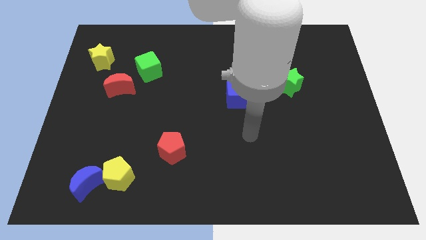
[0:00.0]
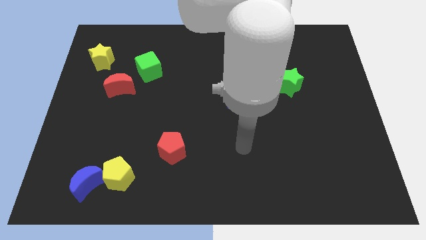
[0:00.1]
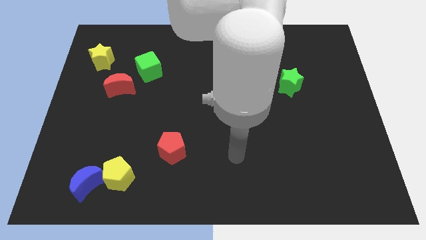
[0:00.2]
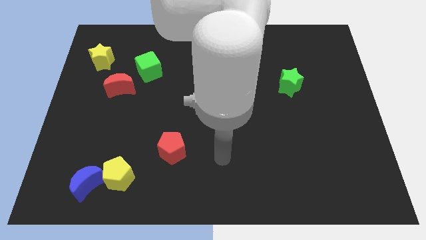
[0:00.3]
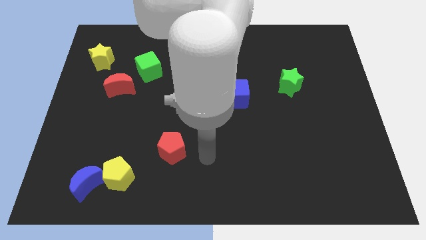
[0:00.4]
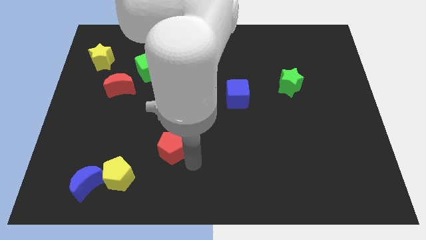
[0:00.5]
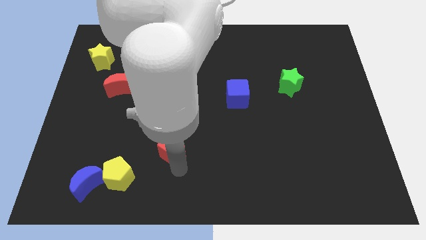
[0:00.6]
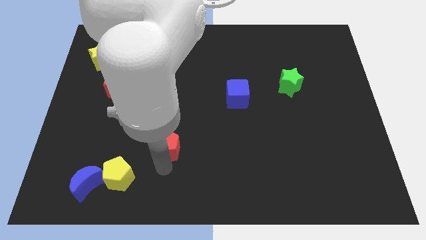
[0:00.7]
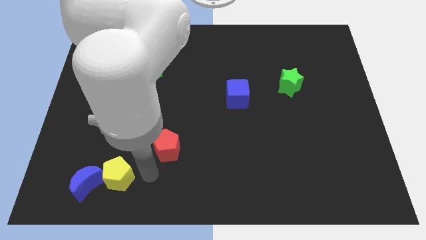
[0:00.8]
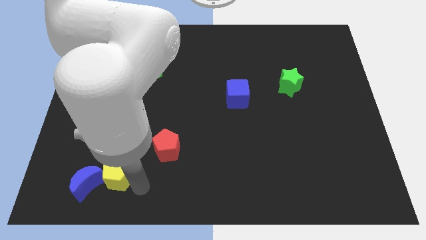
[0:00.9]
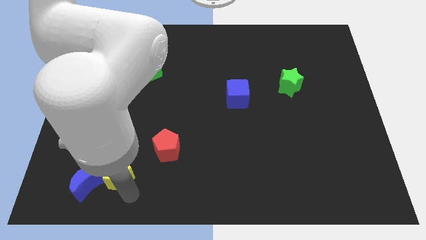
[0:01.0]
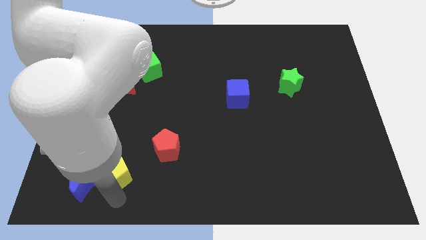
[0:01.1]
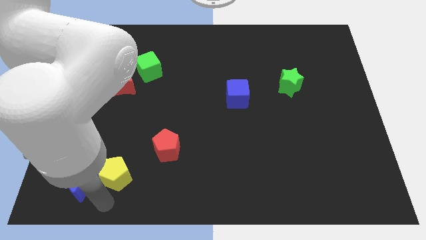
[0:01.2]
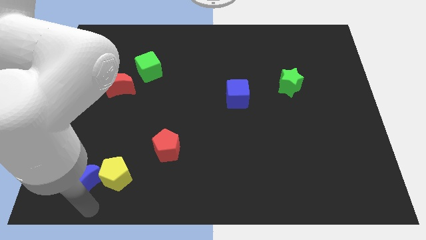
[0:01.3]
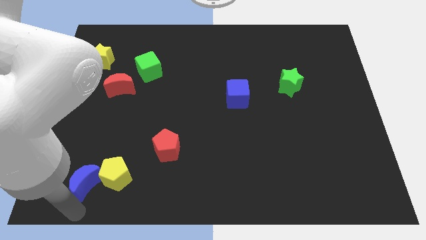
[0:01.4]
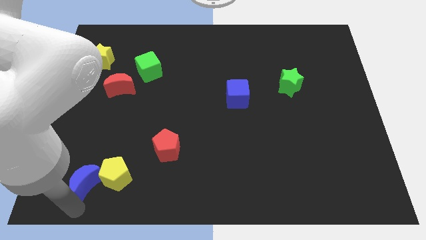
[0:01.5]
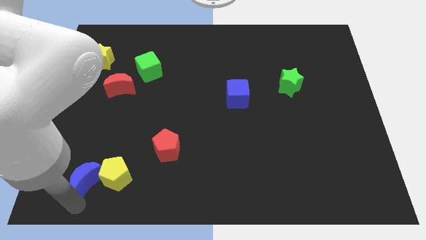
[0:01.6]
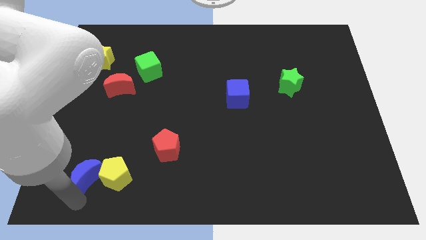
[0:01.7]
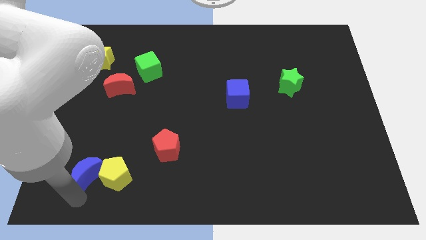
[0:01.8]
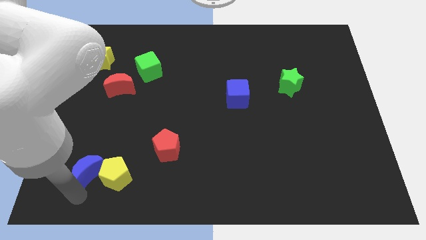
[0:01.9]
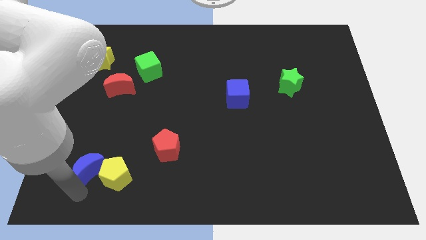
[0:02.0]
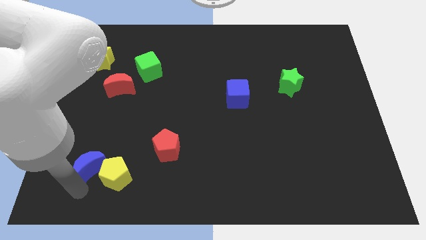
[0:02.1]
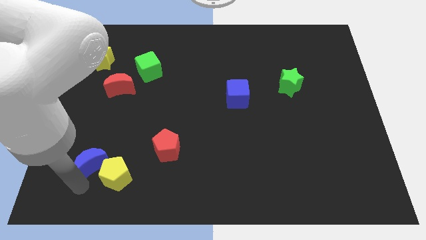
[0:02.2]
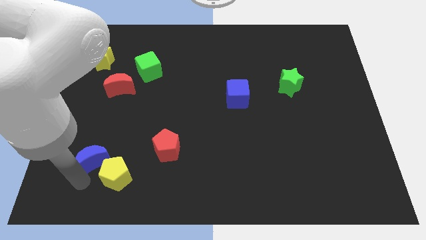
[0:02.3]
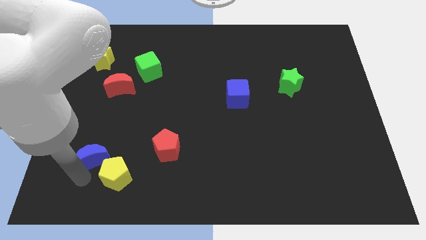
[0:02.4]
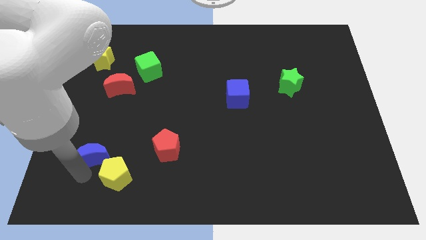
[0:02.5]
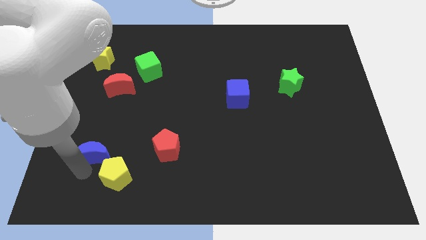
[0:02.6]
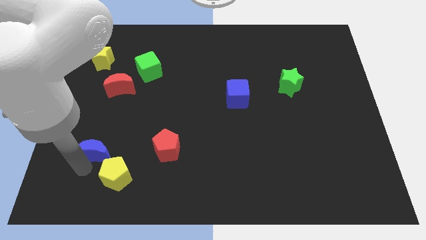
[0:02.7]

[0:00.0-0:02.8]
move the blue moon a little bit upwards

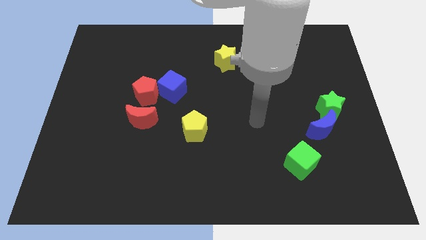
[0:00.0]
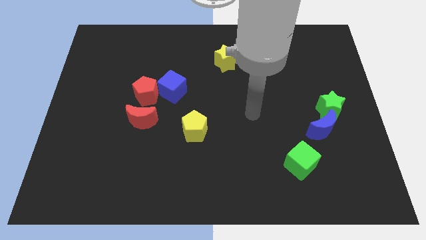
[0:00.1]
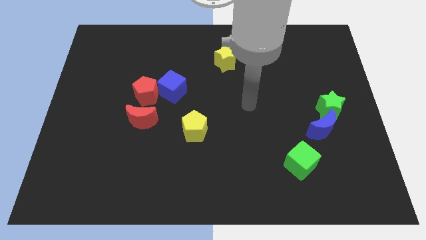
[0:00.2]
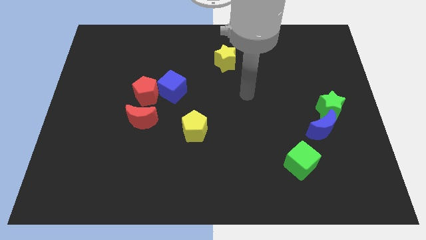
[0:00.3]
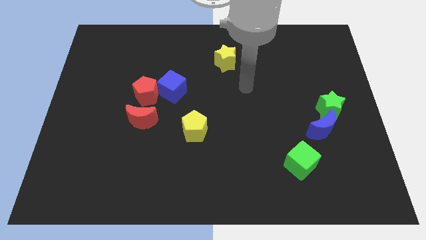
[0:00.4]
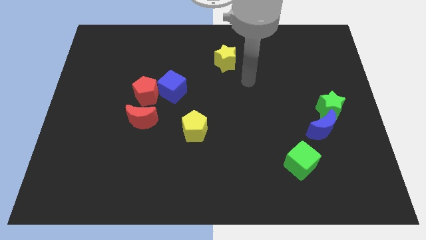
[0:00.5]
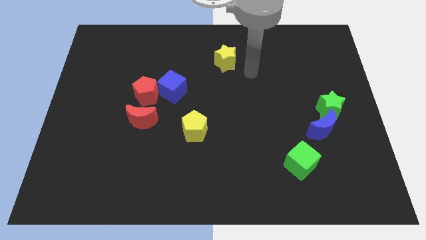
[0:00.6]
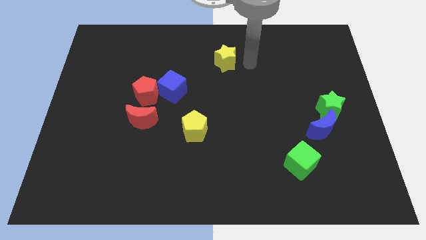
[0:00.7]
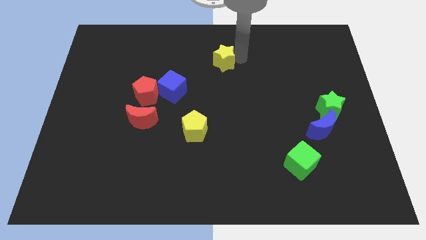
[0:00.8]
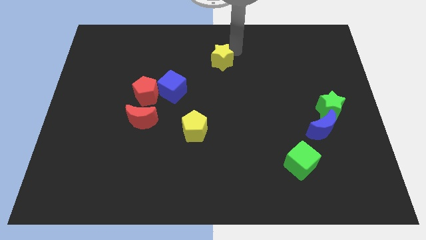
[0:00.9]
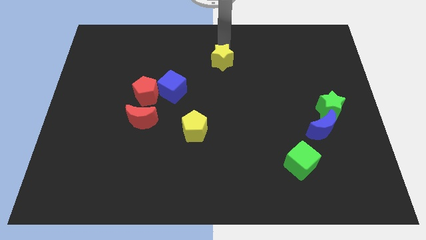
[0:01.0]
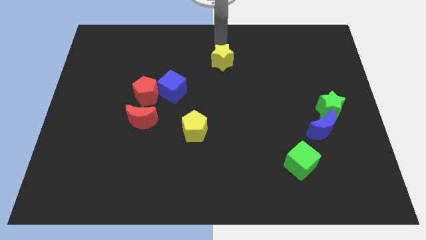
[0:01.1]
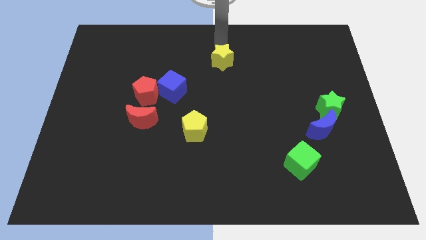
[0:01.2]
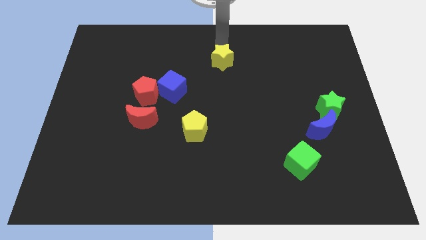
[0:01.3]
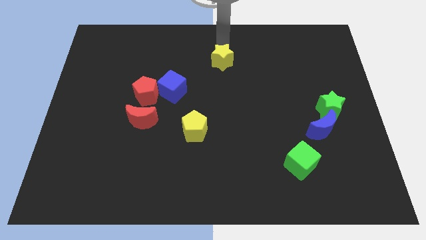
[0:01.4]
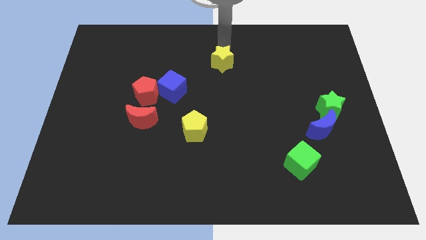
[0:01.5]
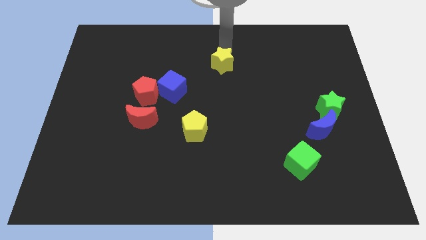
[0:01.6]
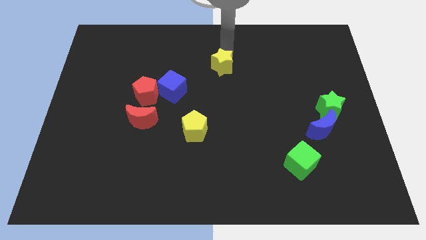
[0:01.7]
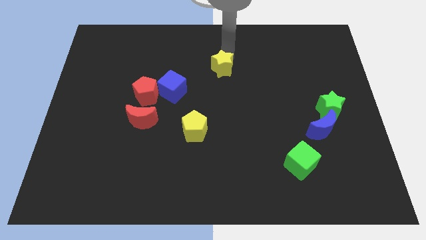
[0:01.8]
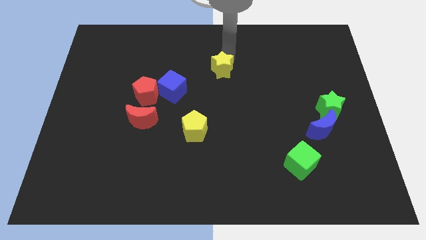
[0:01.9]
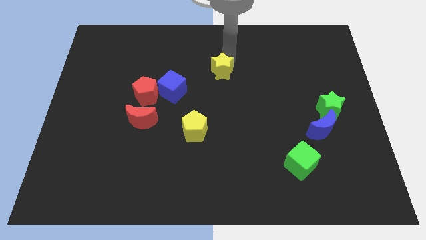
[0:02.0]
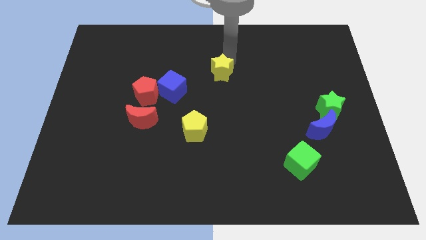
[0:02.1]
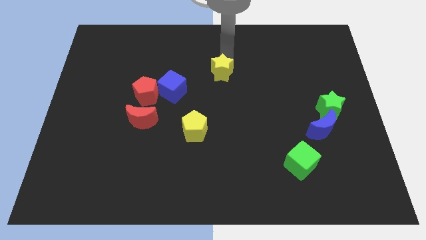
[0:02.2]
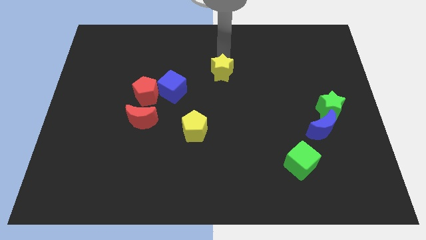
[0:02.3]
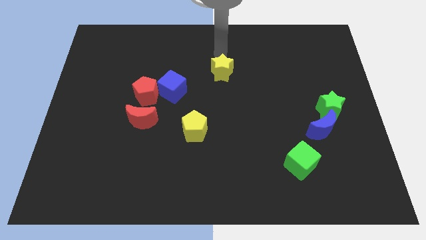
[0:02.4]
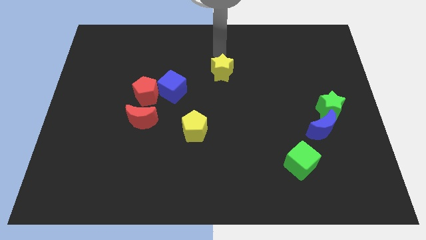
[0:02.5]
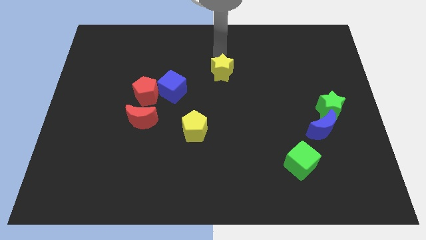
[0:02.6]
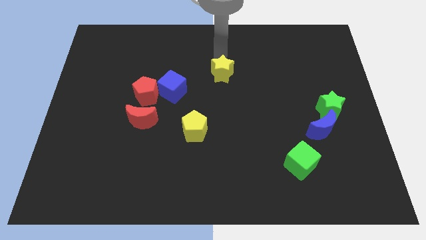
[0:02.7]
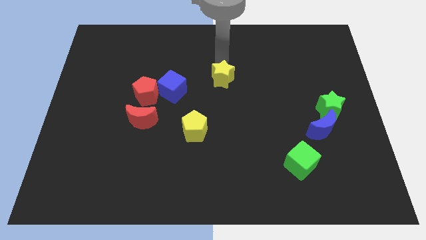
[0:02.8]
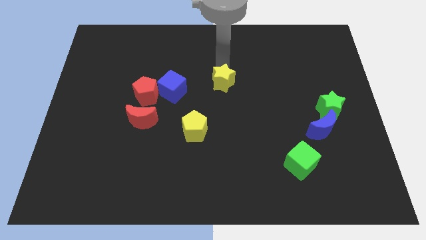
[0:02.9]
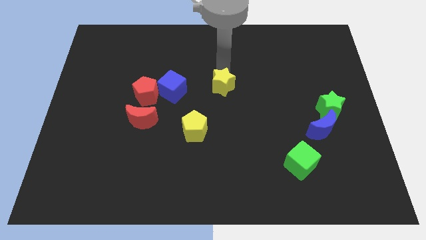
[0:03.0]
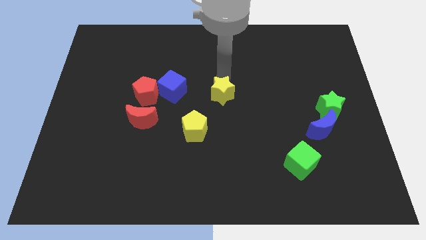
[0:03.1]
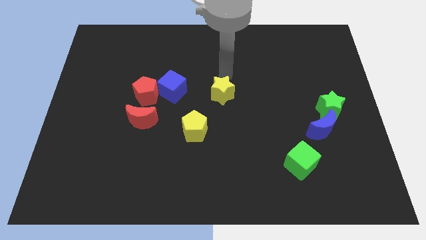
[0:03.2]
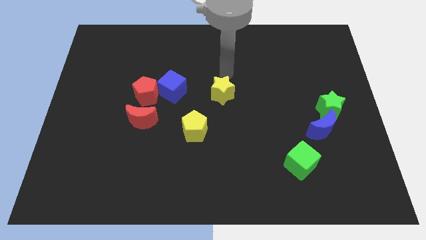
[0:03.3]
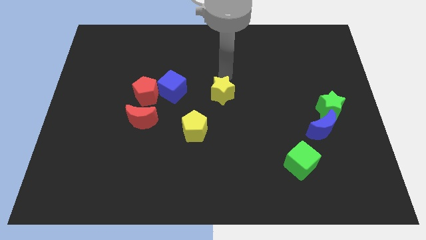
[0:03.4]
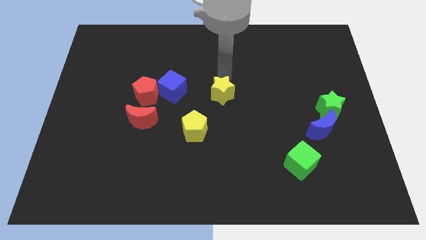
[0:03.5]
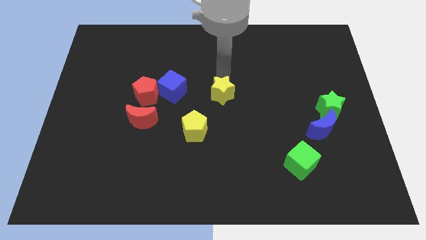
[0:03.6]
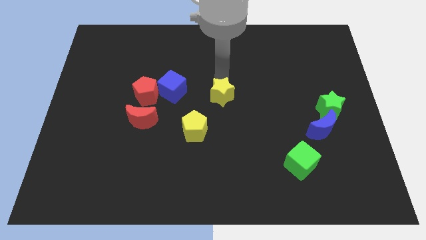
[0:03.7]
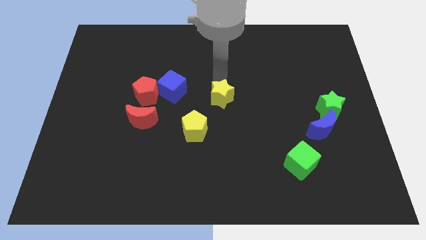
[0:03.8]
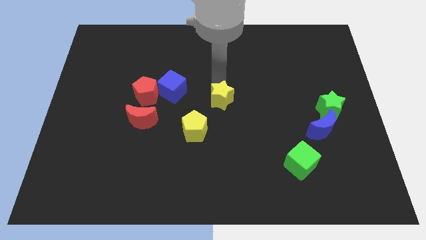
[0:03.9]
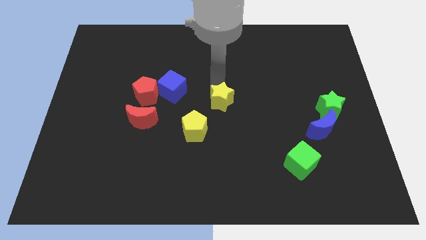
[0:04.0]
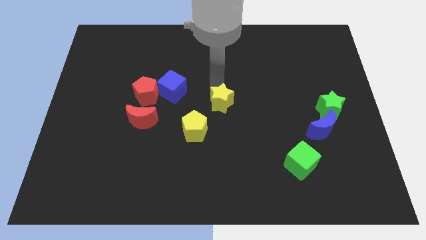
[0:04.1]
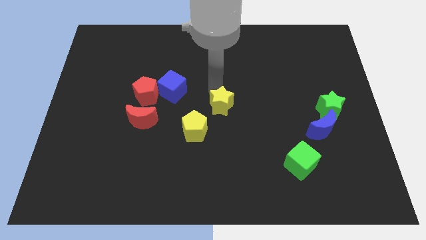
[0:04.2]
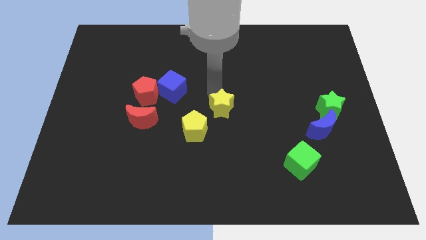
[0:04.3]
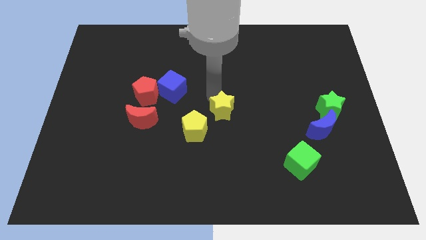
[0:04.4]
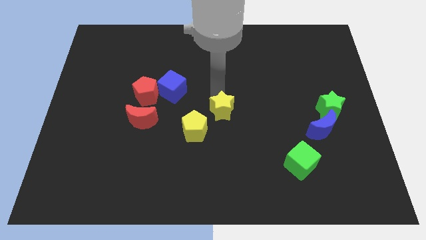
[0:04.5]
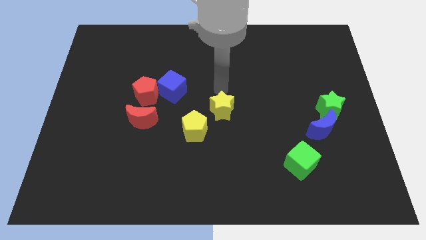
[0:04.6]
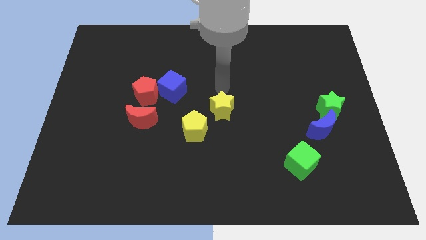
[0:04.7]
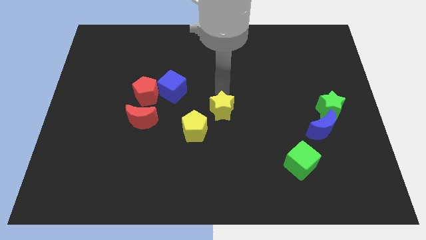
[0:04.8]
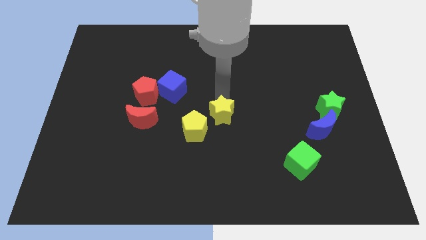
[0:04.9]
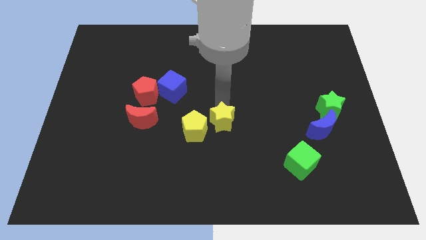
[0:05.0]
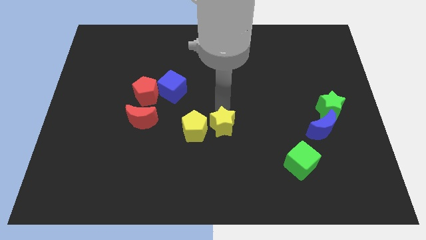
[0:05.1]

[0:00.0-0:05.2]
push the yellow star down

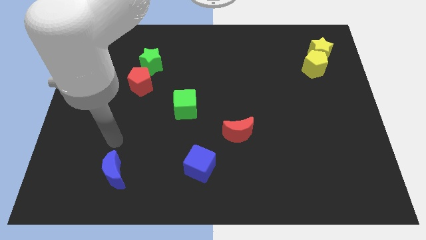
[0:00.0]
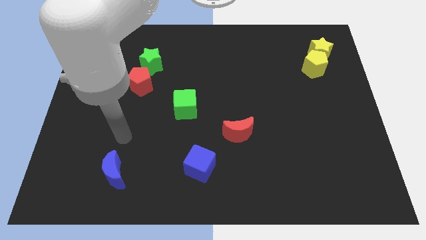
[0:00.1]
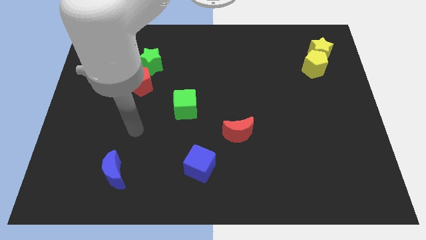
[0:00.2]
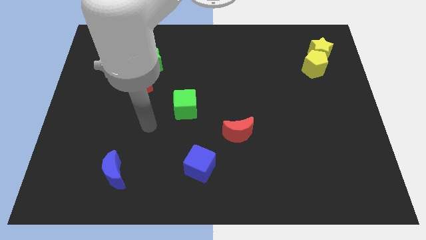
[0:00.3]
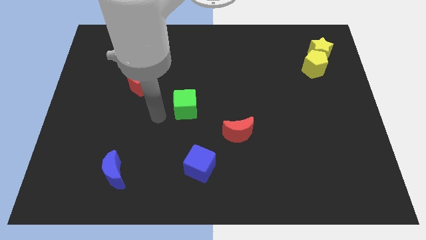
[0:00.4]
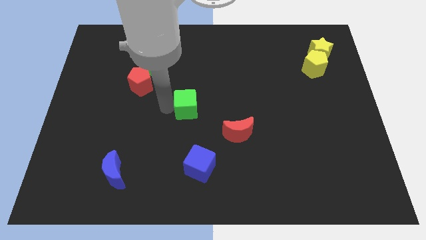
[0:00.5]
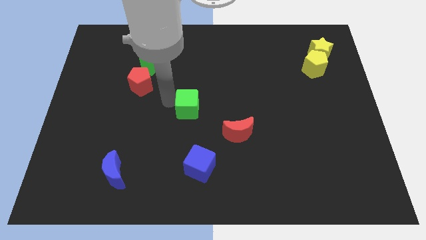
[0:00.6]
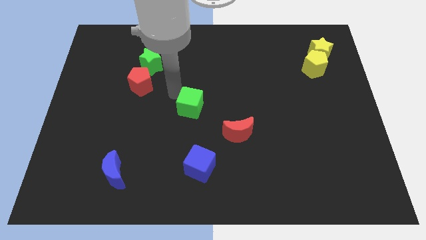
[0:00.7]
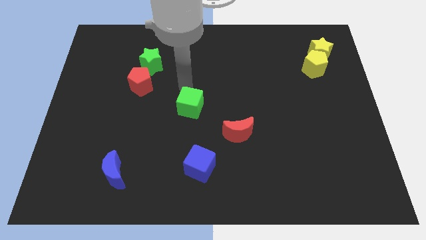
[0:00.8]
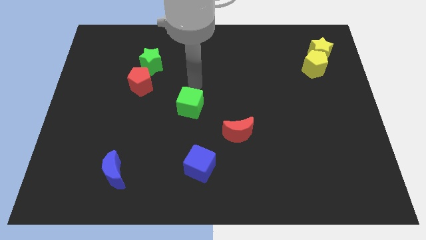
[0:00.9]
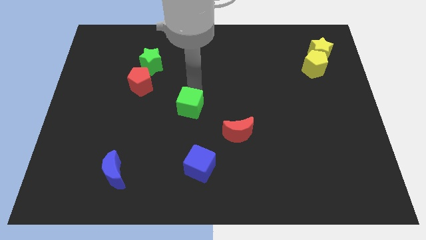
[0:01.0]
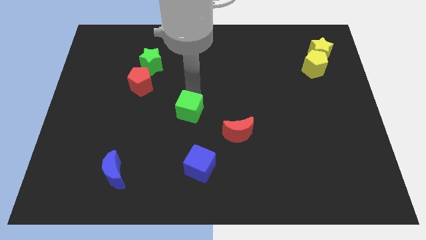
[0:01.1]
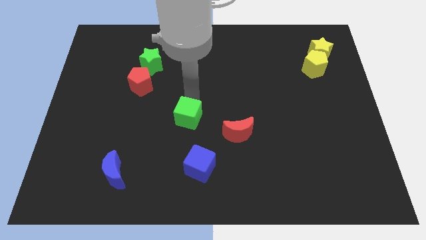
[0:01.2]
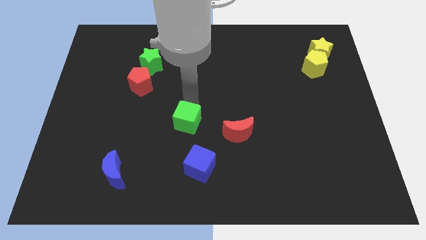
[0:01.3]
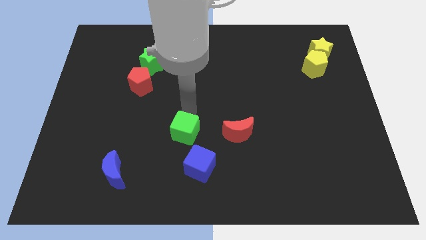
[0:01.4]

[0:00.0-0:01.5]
push the green cube down a bit
